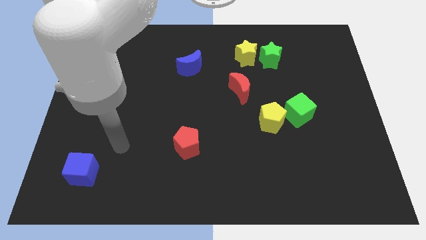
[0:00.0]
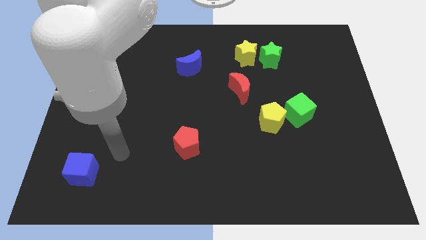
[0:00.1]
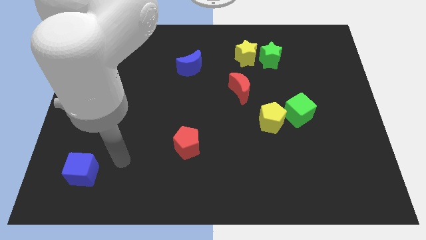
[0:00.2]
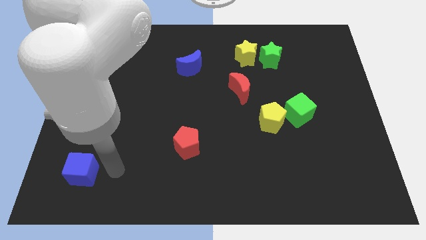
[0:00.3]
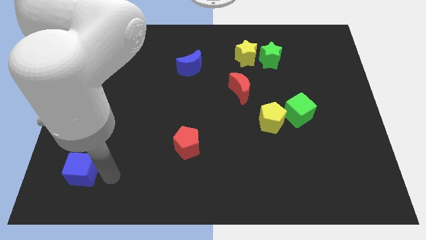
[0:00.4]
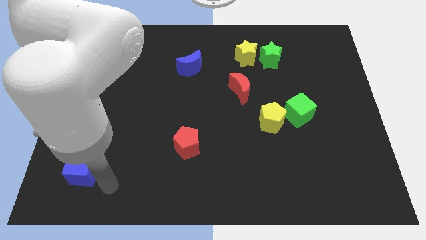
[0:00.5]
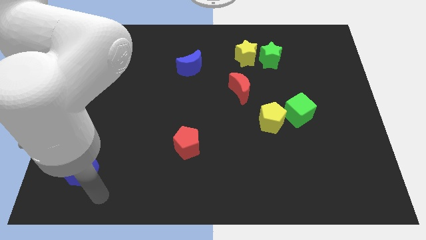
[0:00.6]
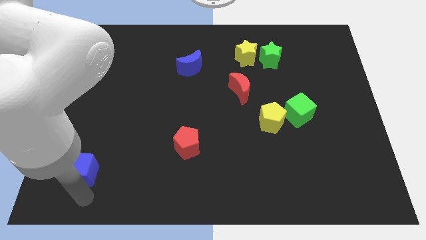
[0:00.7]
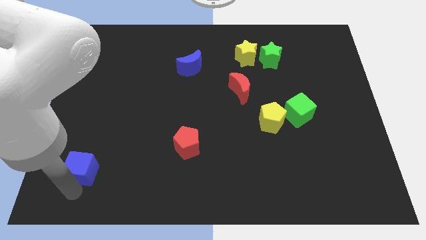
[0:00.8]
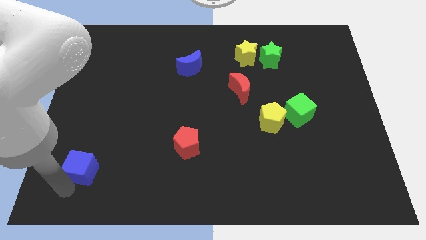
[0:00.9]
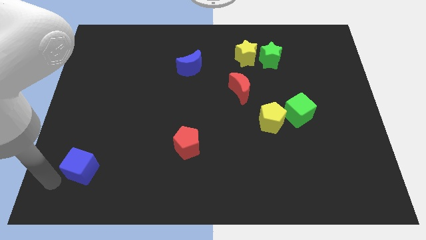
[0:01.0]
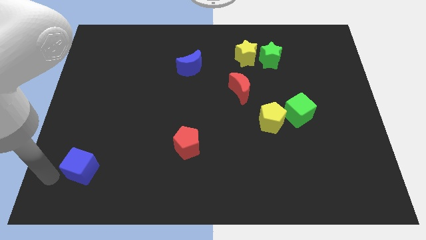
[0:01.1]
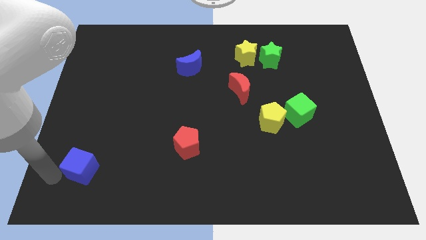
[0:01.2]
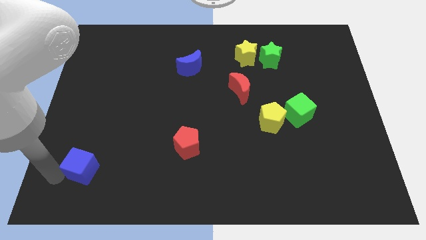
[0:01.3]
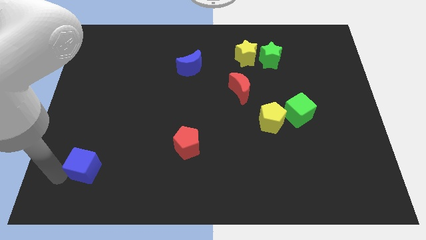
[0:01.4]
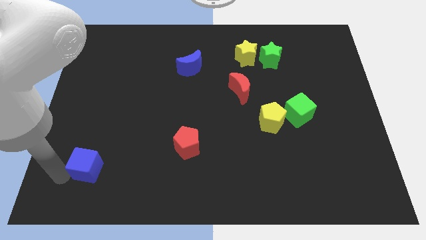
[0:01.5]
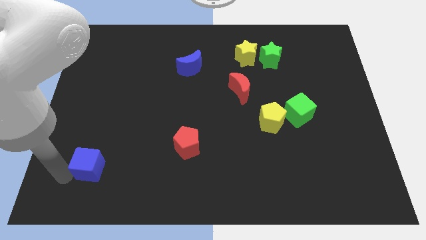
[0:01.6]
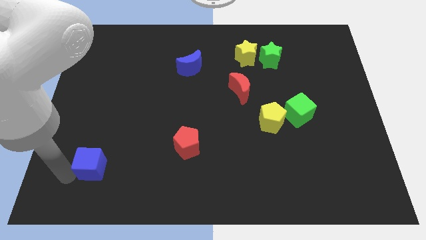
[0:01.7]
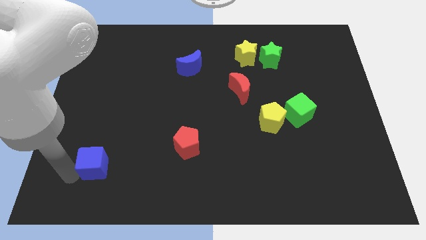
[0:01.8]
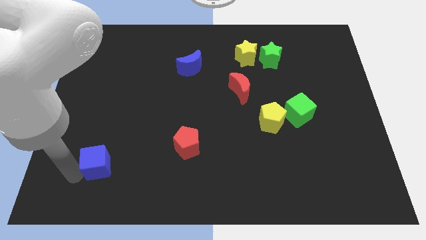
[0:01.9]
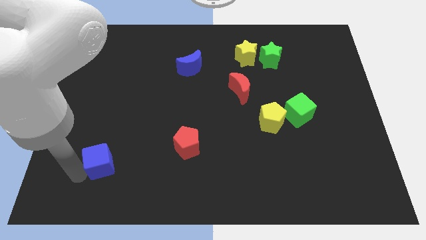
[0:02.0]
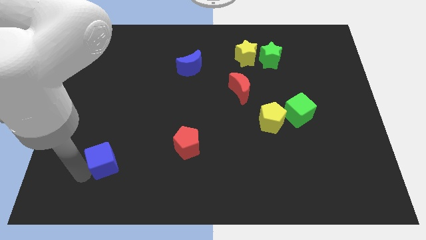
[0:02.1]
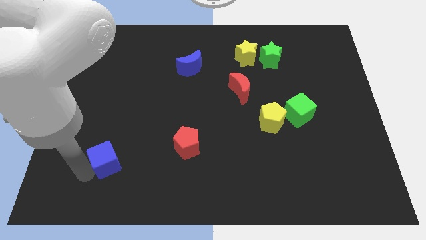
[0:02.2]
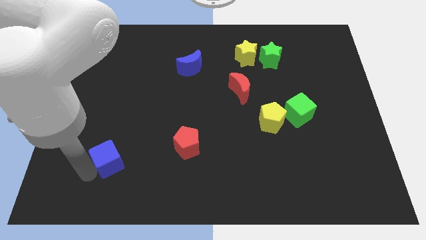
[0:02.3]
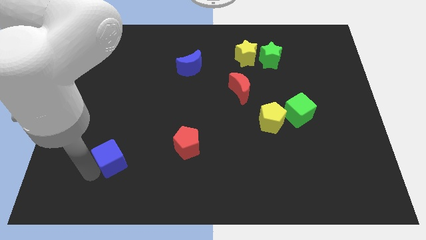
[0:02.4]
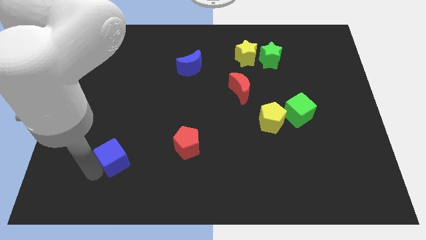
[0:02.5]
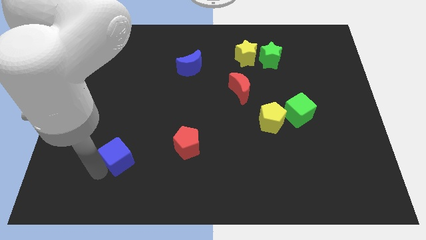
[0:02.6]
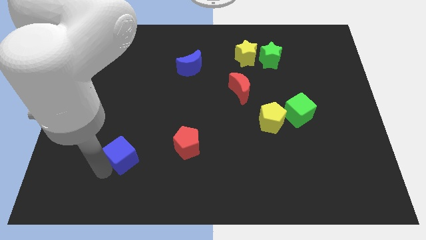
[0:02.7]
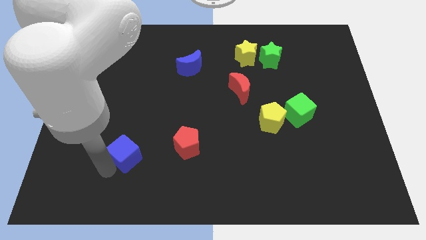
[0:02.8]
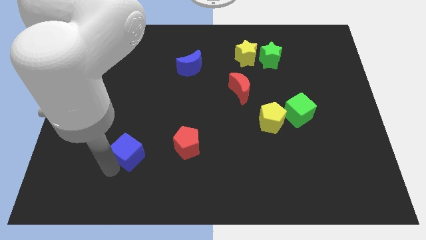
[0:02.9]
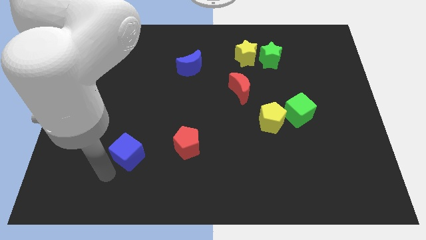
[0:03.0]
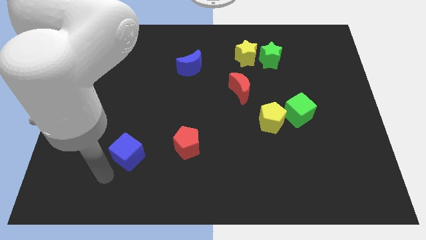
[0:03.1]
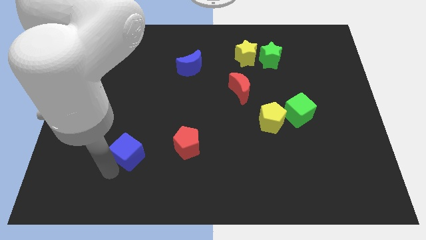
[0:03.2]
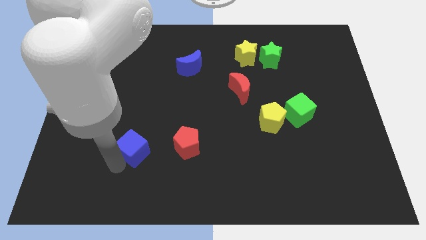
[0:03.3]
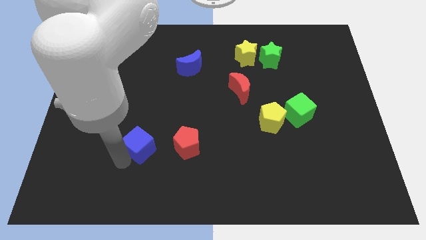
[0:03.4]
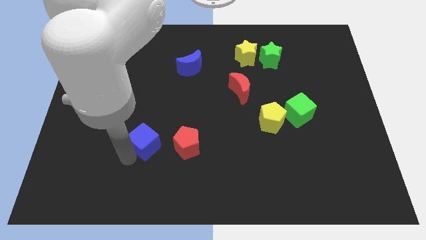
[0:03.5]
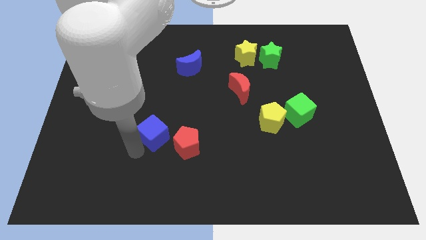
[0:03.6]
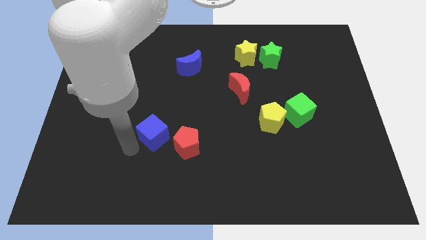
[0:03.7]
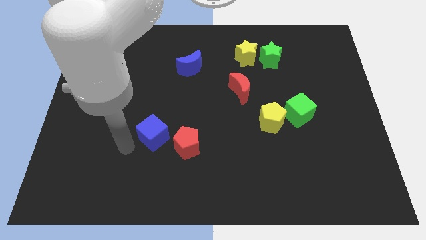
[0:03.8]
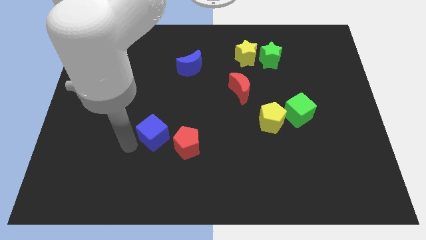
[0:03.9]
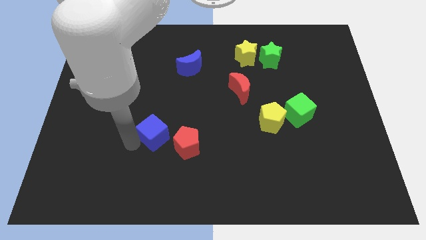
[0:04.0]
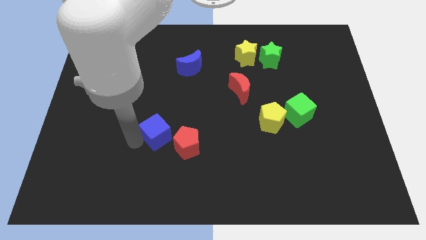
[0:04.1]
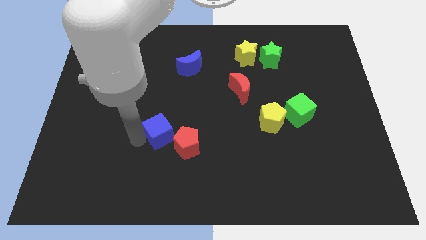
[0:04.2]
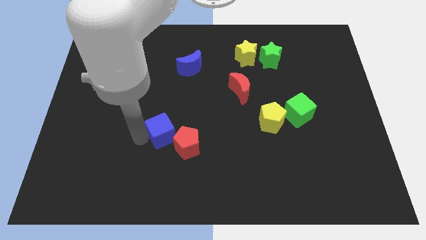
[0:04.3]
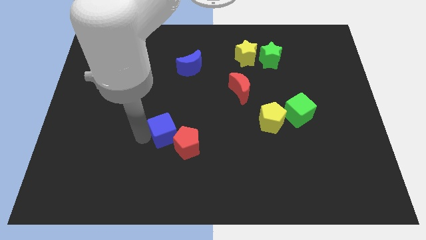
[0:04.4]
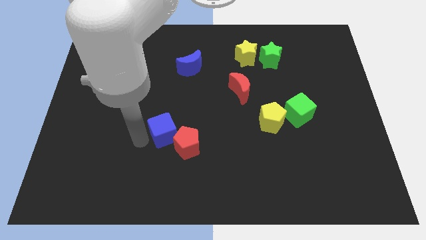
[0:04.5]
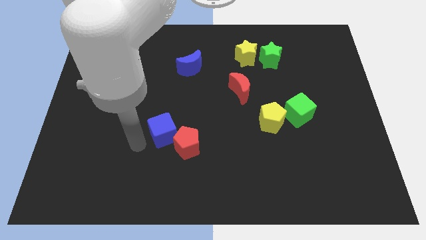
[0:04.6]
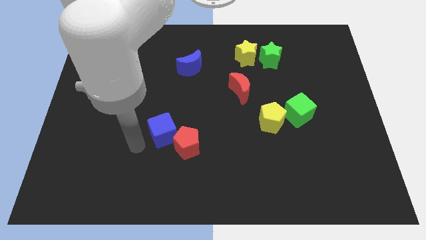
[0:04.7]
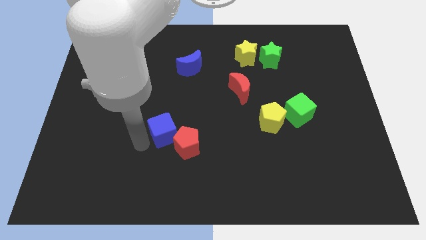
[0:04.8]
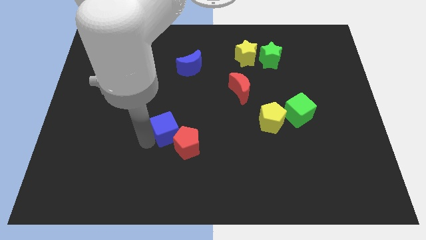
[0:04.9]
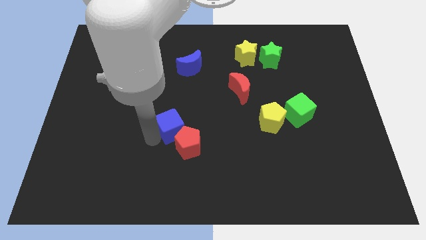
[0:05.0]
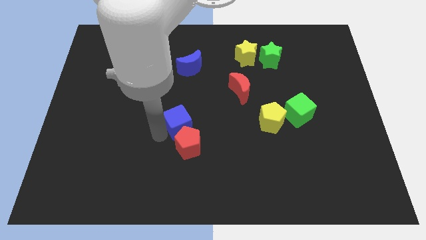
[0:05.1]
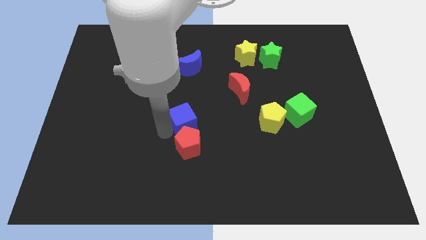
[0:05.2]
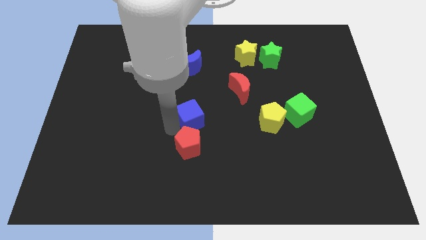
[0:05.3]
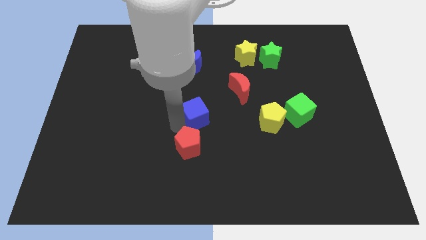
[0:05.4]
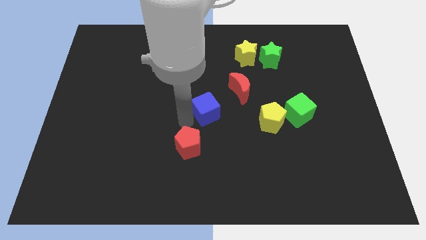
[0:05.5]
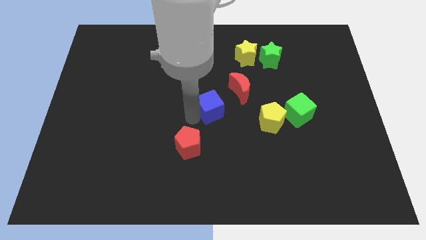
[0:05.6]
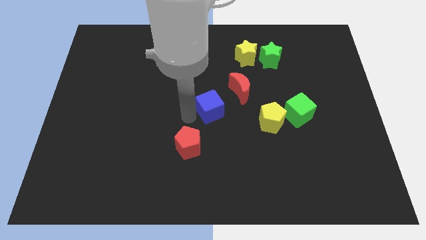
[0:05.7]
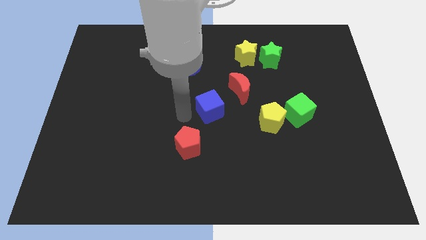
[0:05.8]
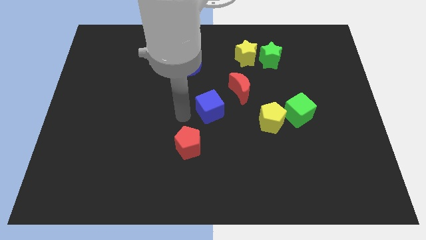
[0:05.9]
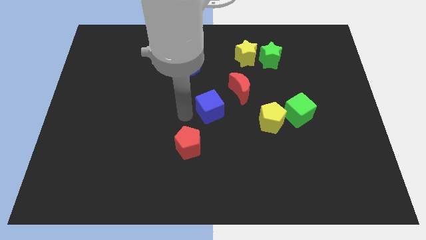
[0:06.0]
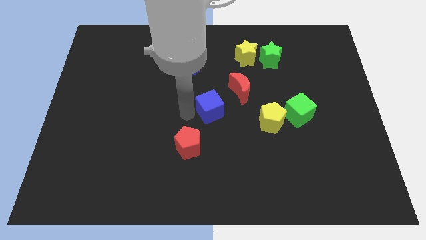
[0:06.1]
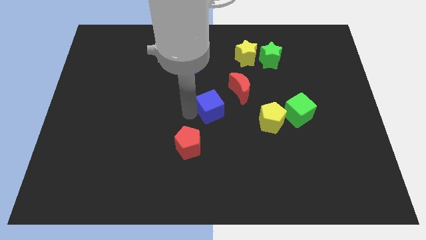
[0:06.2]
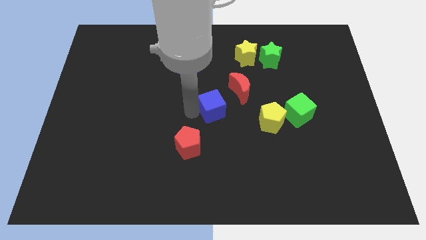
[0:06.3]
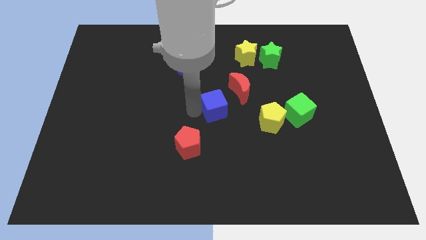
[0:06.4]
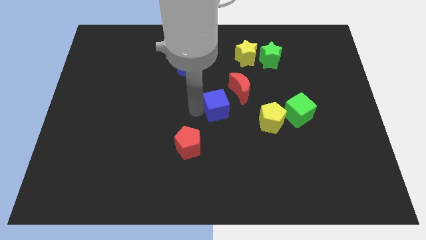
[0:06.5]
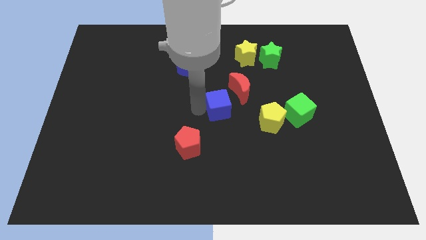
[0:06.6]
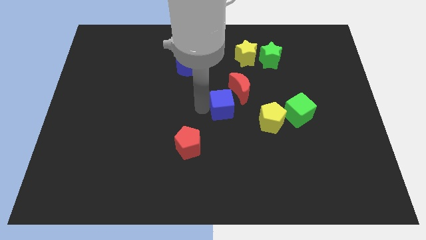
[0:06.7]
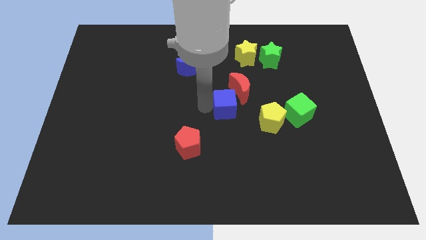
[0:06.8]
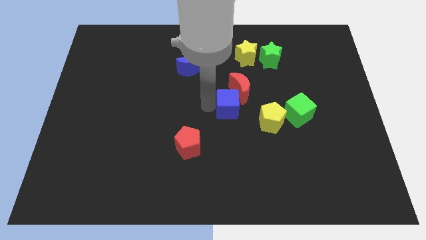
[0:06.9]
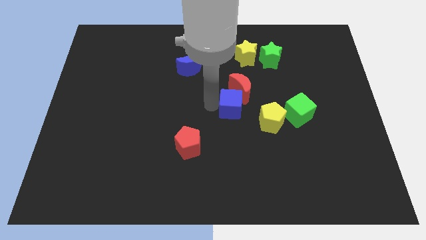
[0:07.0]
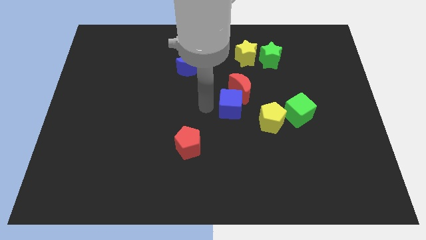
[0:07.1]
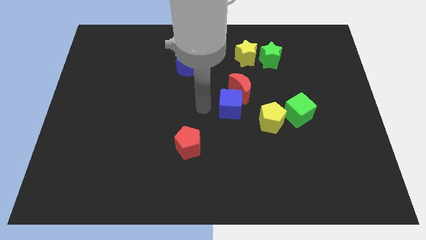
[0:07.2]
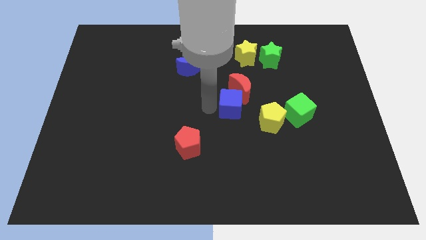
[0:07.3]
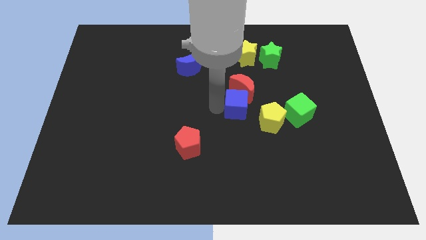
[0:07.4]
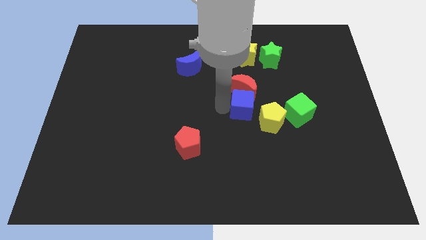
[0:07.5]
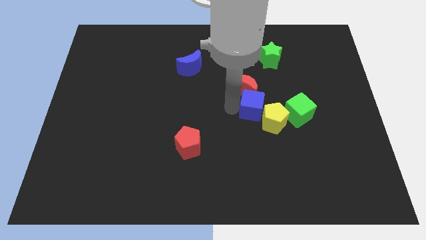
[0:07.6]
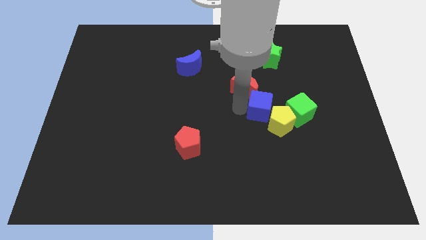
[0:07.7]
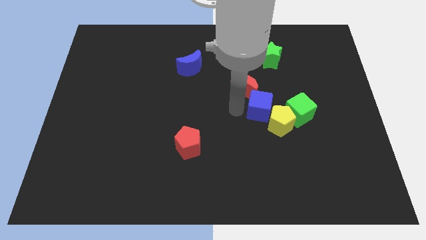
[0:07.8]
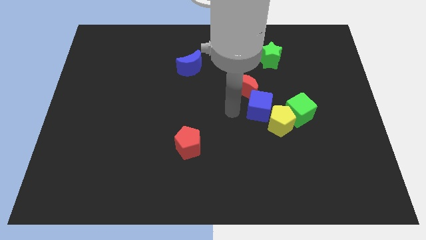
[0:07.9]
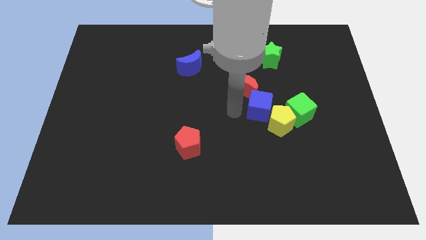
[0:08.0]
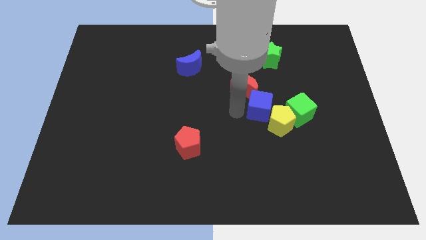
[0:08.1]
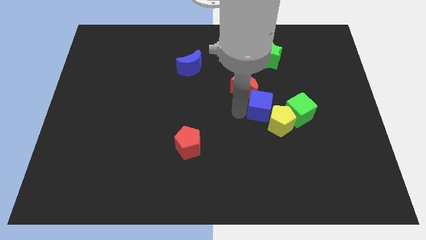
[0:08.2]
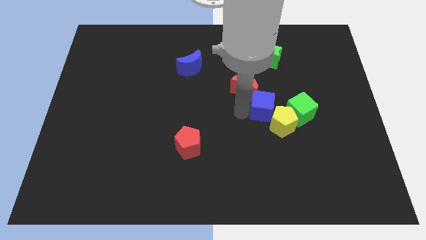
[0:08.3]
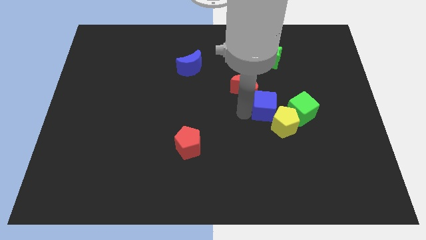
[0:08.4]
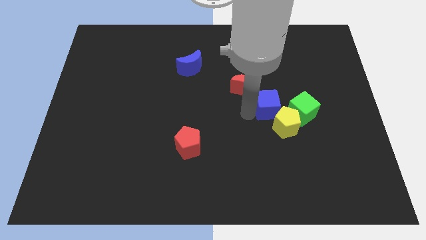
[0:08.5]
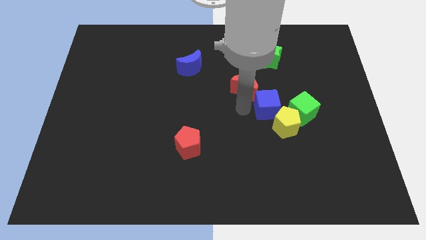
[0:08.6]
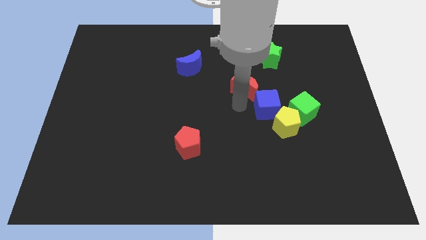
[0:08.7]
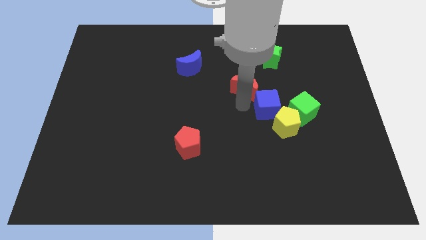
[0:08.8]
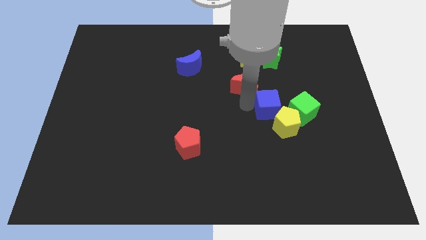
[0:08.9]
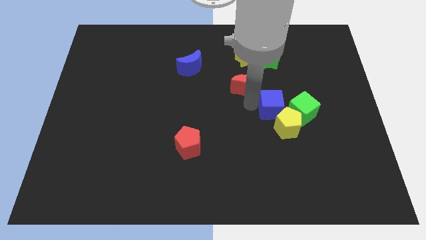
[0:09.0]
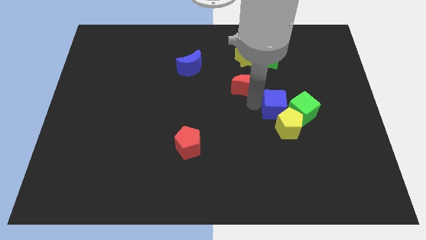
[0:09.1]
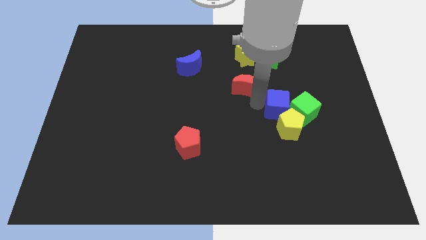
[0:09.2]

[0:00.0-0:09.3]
put the blue cube towards the green cube
